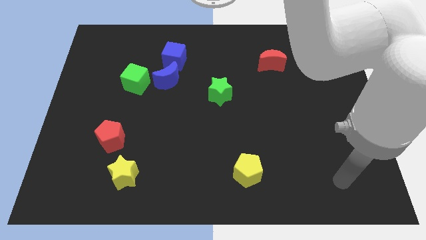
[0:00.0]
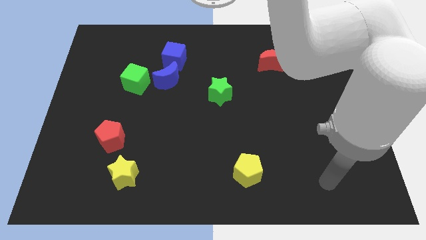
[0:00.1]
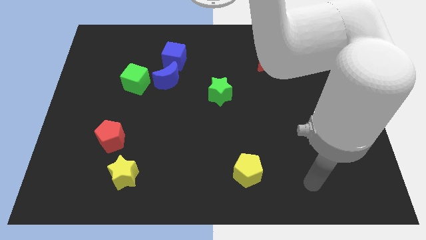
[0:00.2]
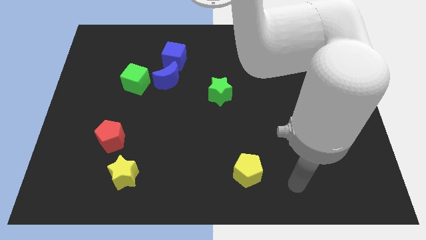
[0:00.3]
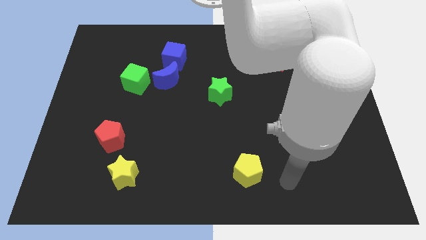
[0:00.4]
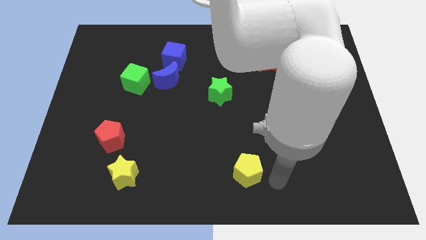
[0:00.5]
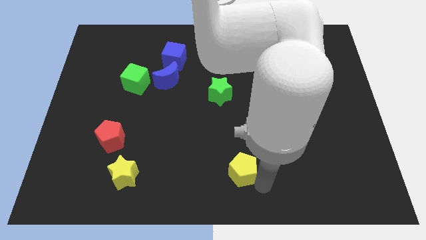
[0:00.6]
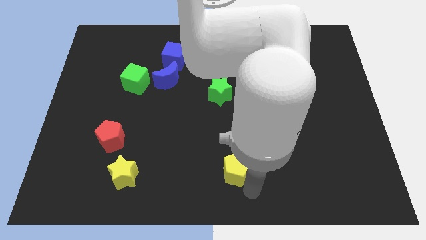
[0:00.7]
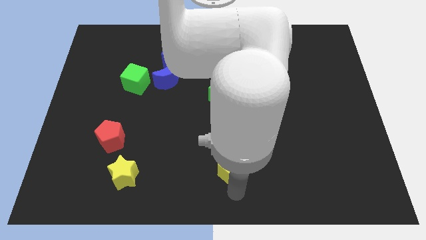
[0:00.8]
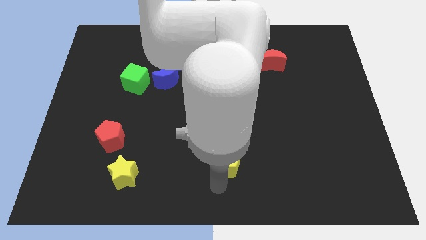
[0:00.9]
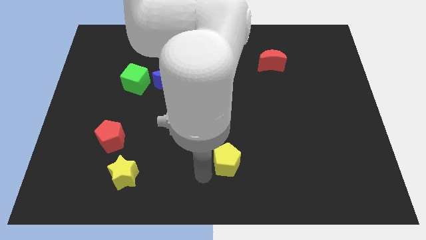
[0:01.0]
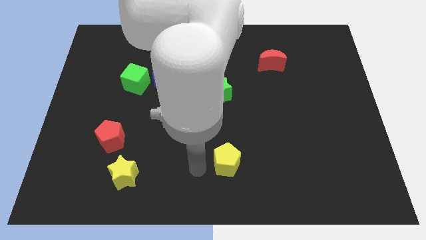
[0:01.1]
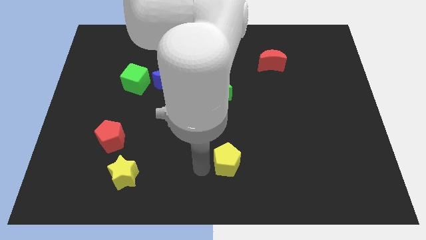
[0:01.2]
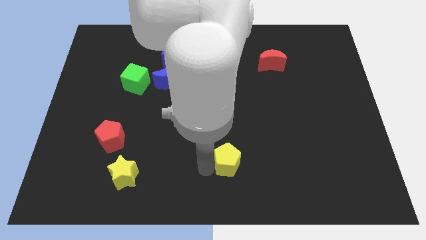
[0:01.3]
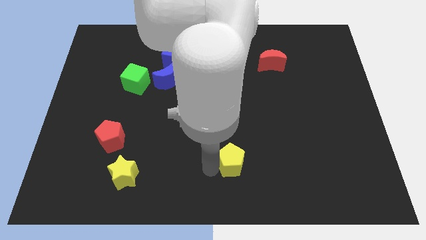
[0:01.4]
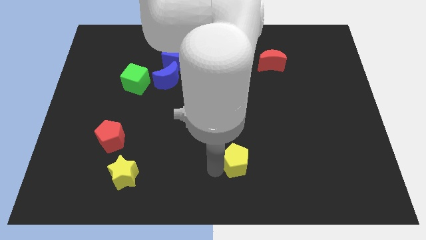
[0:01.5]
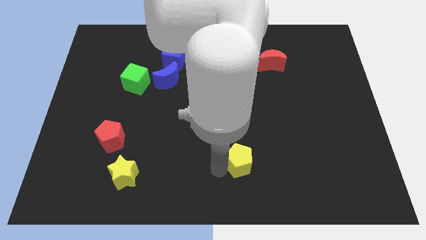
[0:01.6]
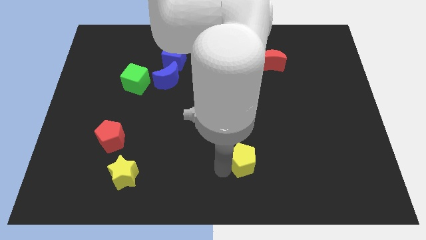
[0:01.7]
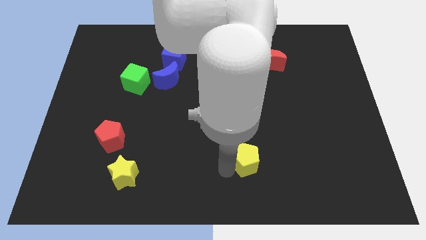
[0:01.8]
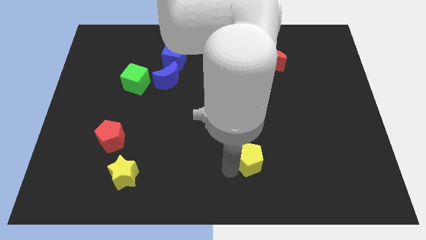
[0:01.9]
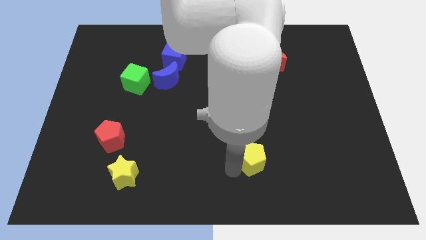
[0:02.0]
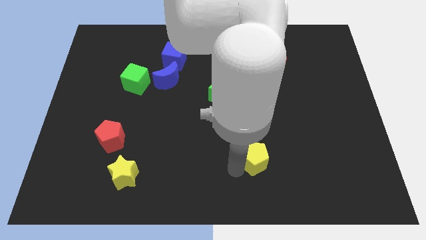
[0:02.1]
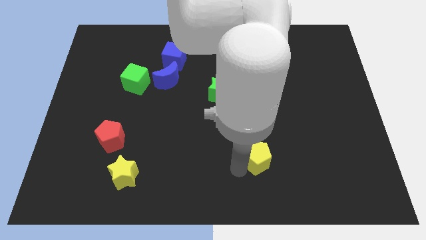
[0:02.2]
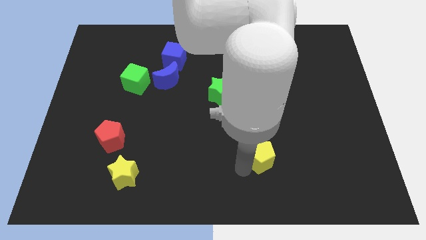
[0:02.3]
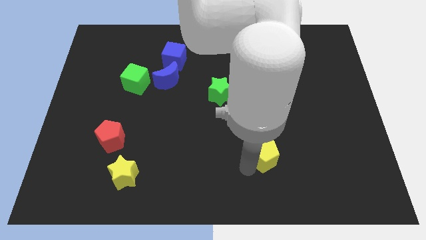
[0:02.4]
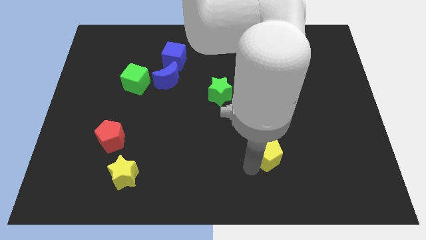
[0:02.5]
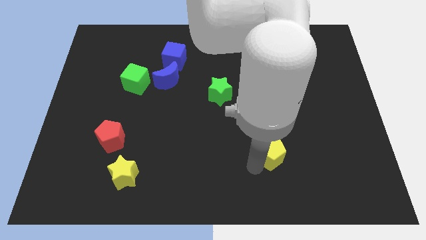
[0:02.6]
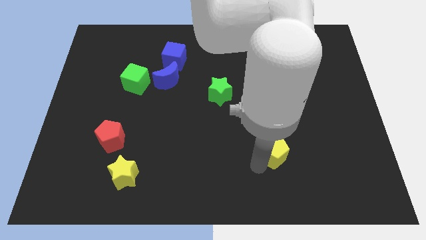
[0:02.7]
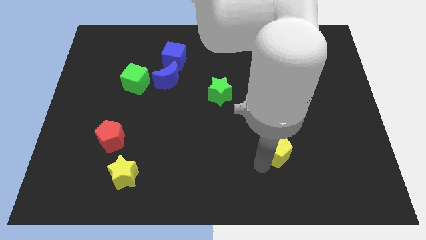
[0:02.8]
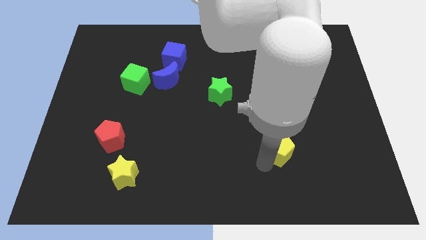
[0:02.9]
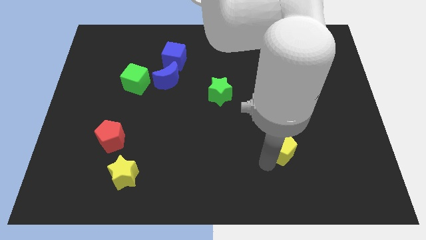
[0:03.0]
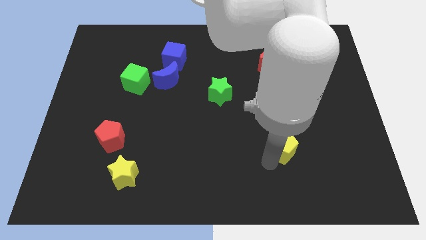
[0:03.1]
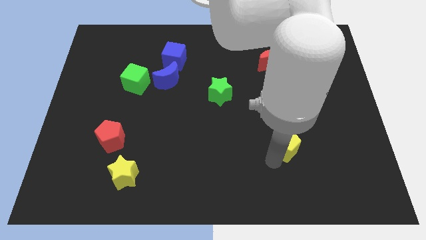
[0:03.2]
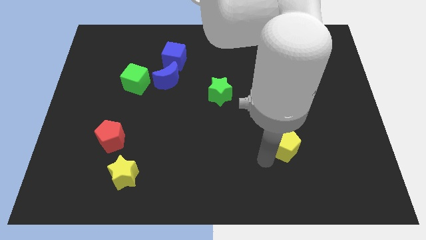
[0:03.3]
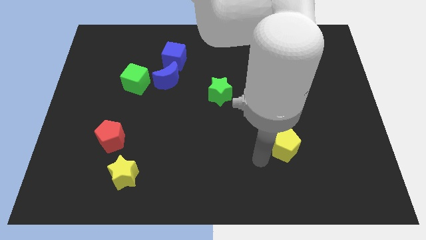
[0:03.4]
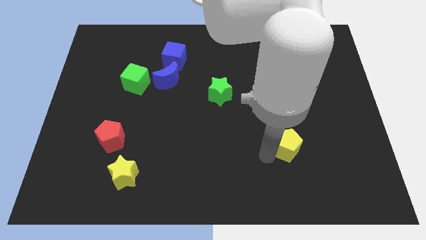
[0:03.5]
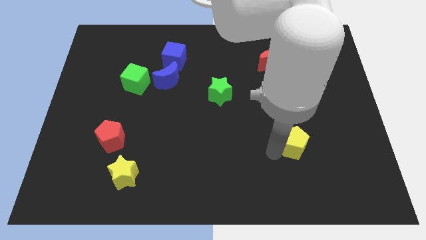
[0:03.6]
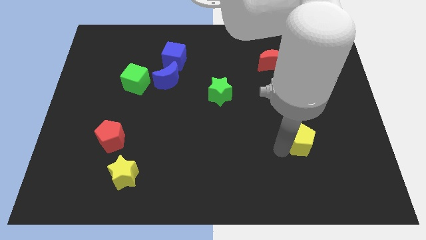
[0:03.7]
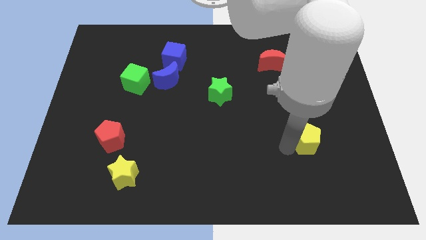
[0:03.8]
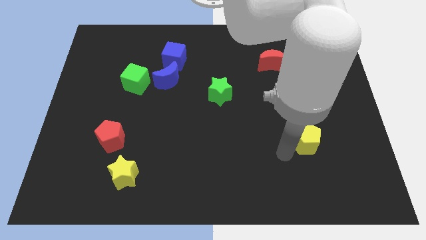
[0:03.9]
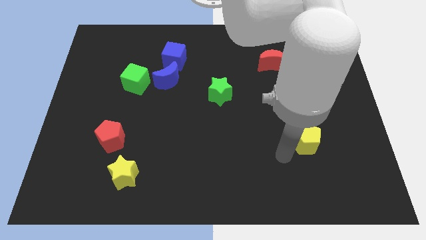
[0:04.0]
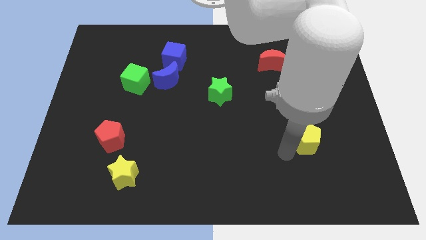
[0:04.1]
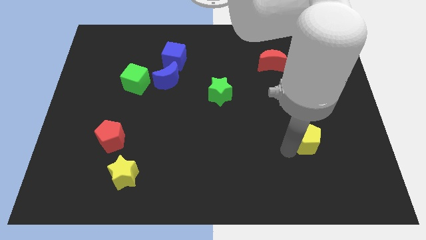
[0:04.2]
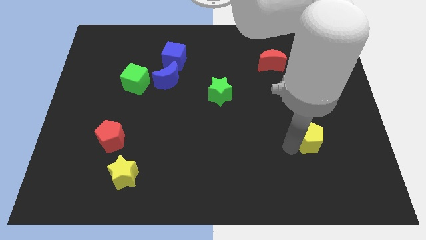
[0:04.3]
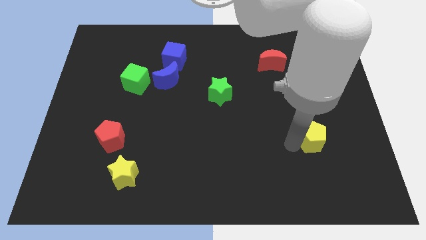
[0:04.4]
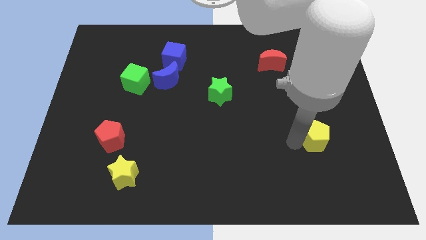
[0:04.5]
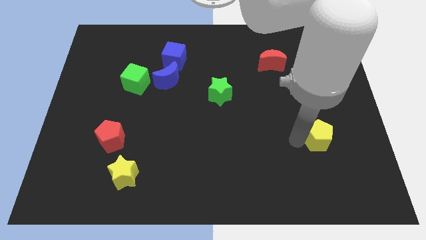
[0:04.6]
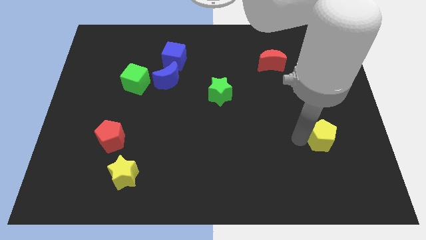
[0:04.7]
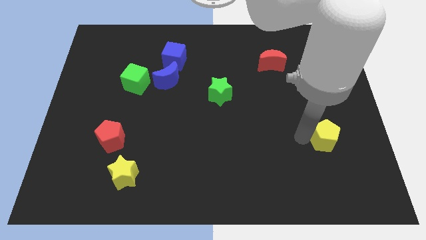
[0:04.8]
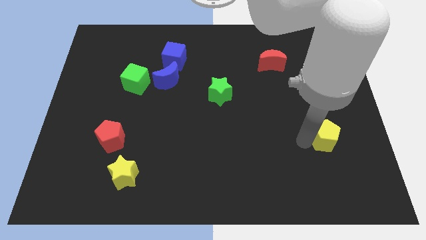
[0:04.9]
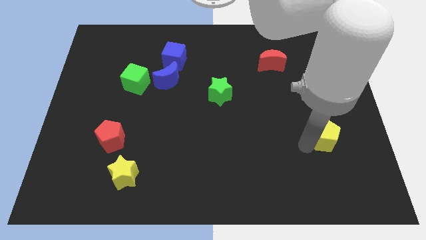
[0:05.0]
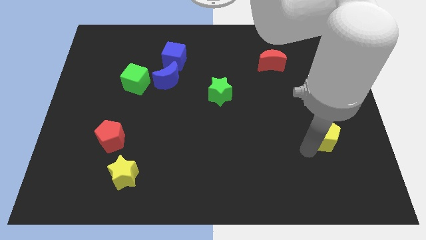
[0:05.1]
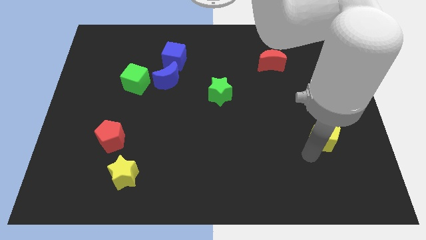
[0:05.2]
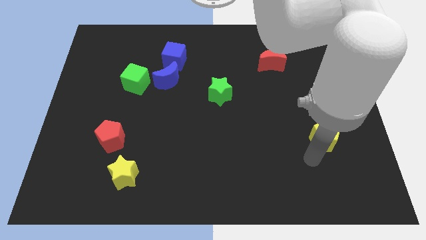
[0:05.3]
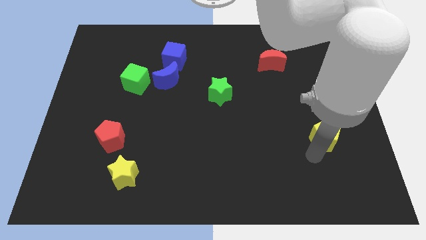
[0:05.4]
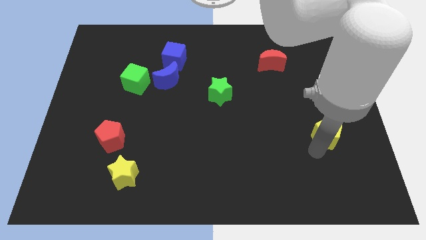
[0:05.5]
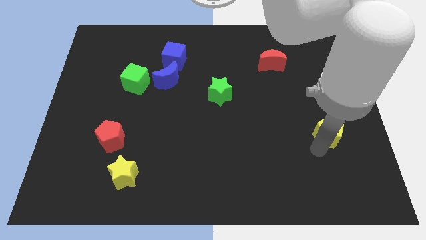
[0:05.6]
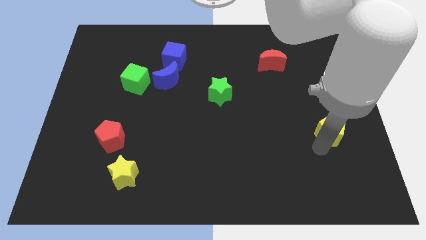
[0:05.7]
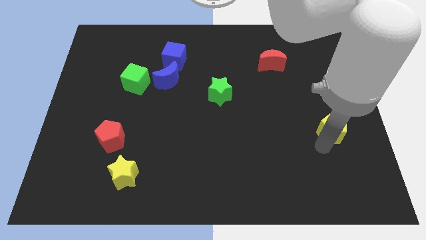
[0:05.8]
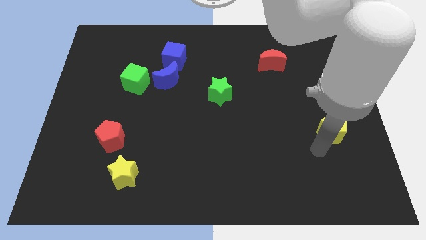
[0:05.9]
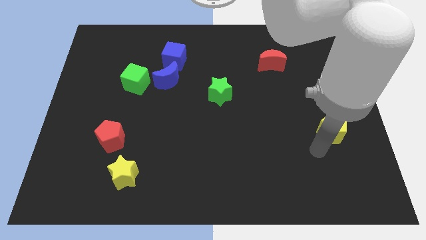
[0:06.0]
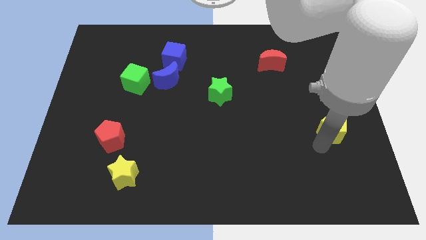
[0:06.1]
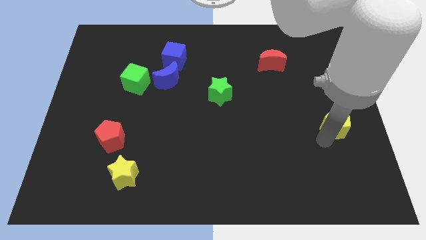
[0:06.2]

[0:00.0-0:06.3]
push the yellow pentagon to the right side of the board

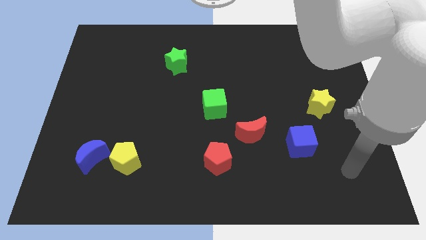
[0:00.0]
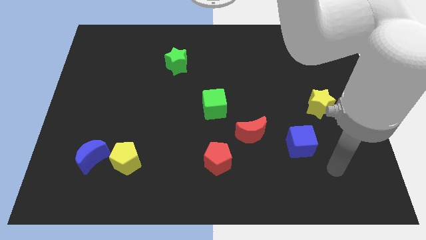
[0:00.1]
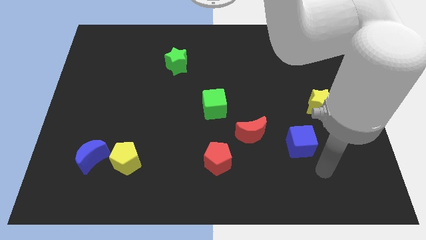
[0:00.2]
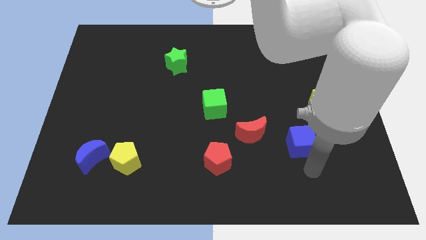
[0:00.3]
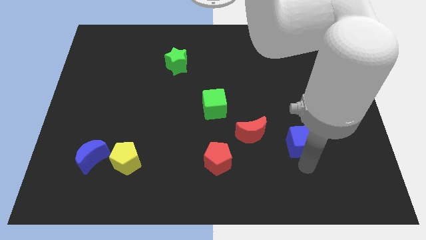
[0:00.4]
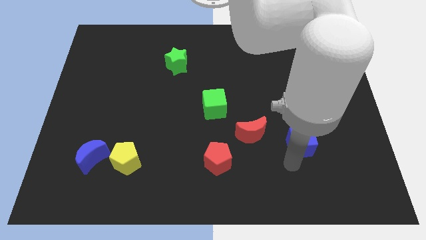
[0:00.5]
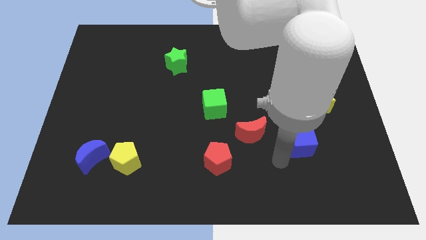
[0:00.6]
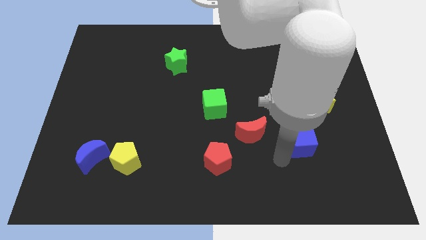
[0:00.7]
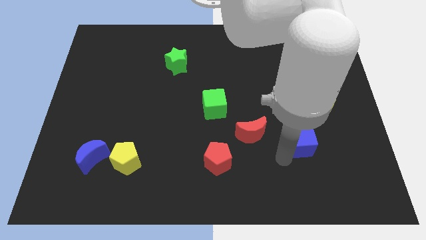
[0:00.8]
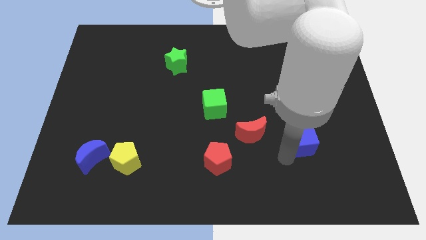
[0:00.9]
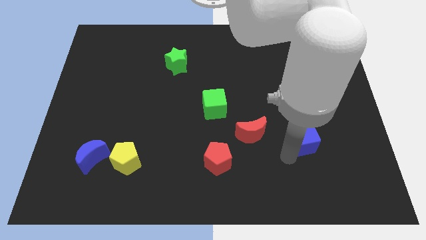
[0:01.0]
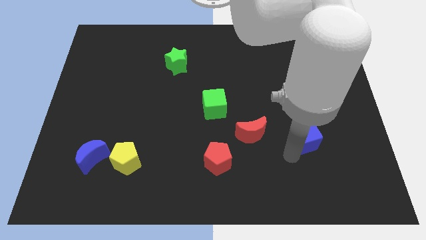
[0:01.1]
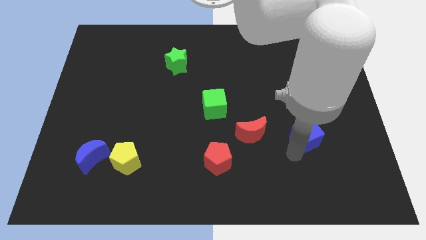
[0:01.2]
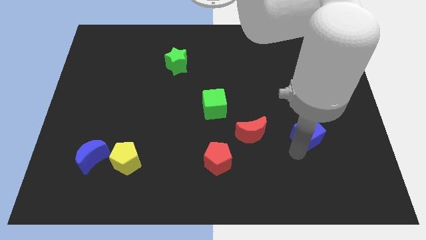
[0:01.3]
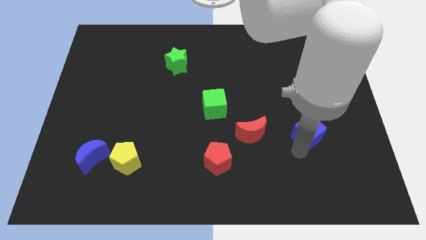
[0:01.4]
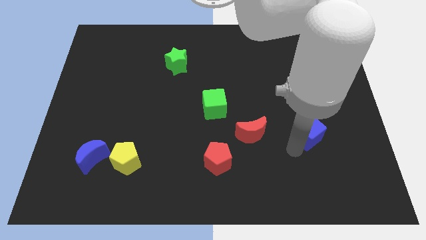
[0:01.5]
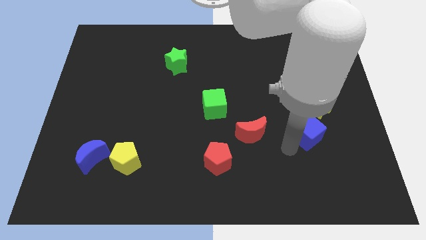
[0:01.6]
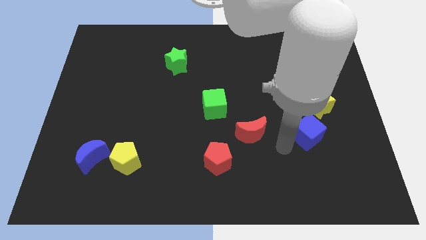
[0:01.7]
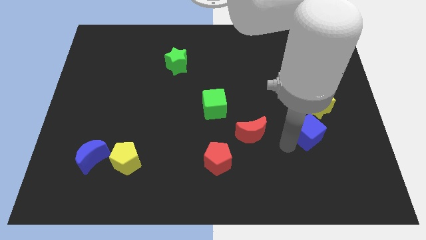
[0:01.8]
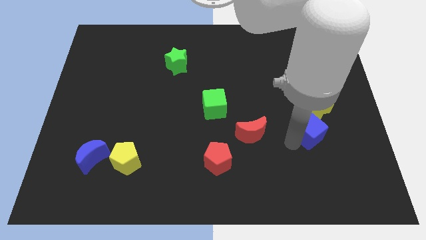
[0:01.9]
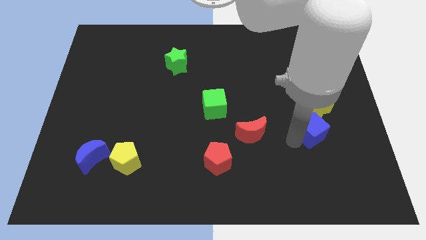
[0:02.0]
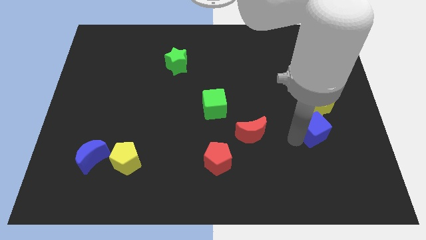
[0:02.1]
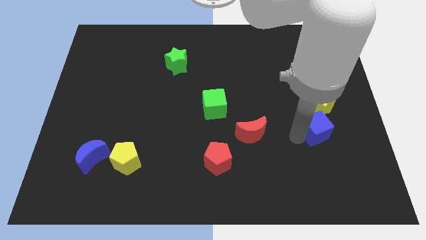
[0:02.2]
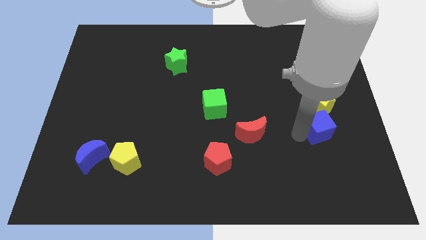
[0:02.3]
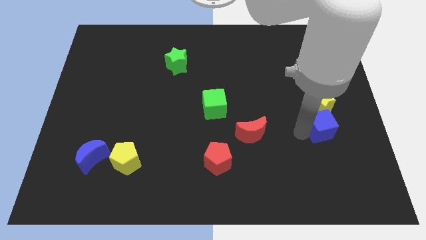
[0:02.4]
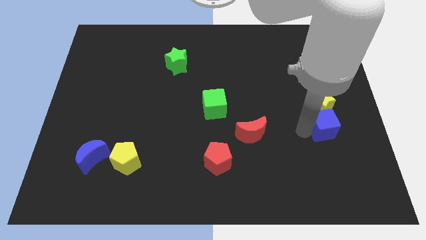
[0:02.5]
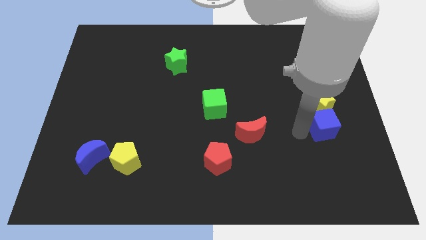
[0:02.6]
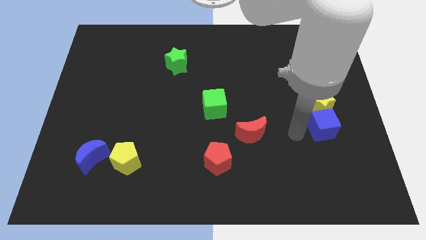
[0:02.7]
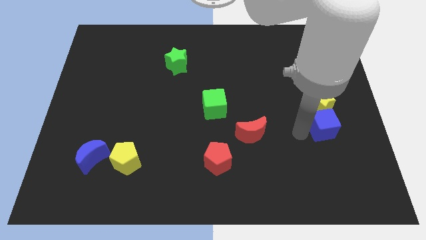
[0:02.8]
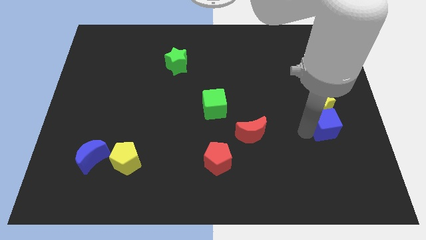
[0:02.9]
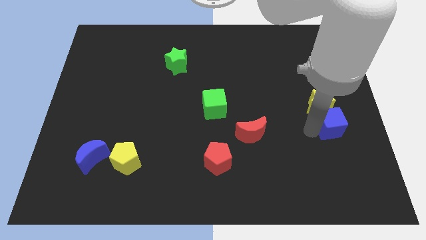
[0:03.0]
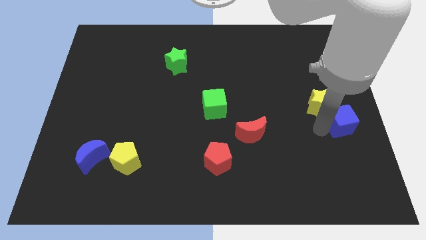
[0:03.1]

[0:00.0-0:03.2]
push the blue cube to the center right
